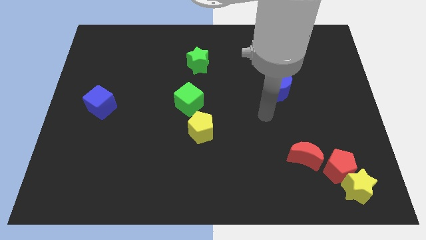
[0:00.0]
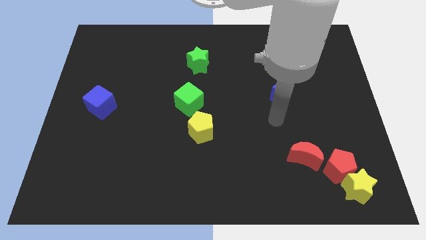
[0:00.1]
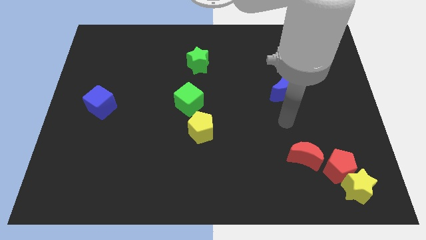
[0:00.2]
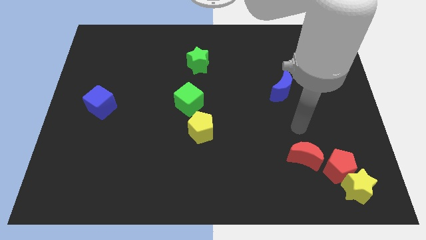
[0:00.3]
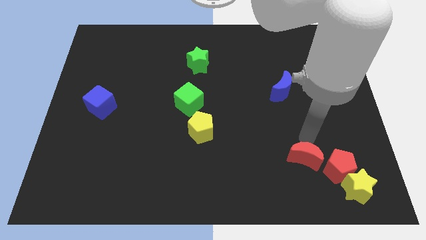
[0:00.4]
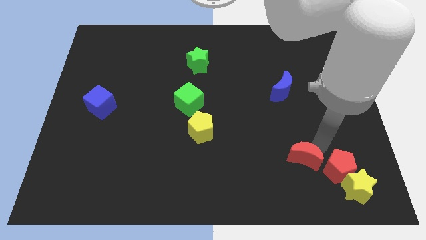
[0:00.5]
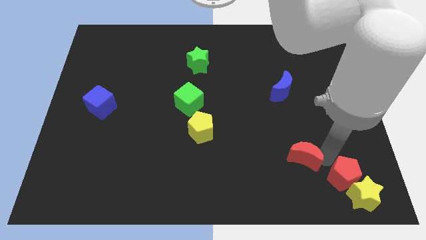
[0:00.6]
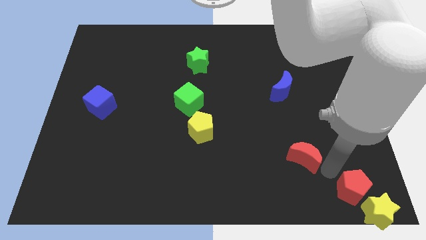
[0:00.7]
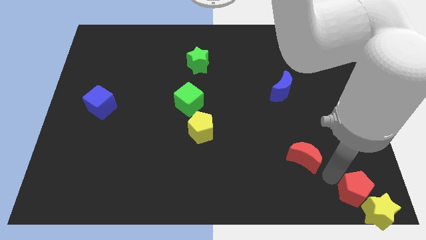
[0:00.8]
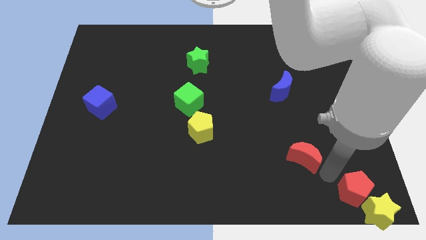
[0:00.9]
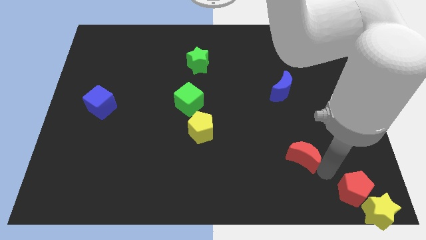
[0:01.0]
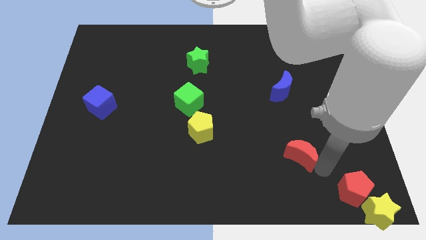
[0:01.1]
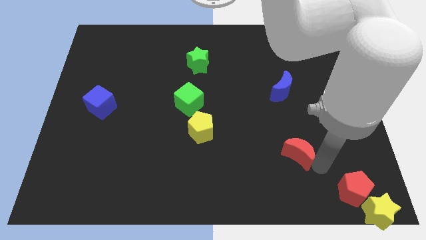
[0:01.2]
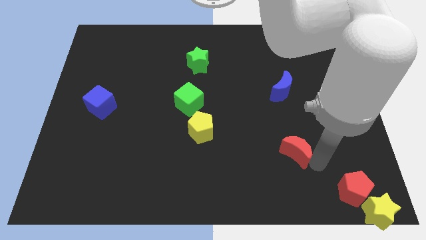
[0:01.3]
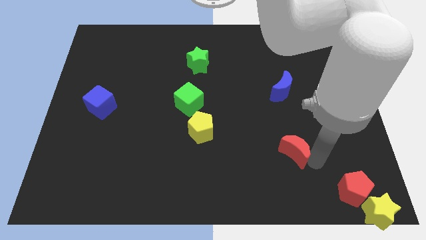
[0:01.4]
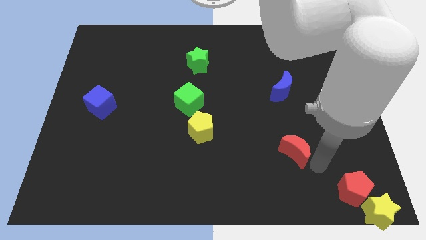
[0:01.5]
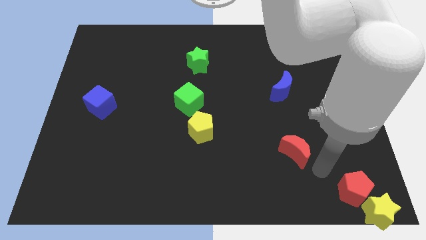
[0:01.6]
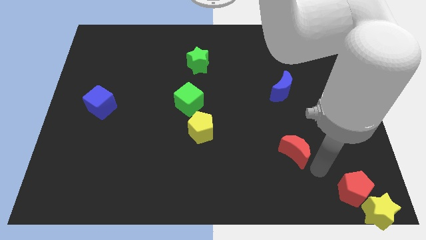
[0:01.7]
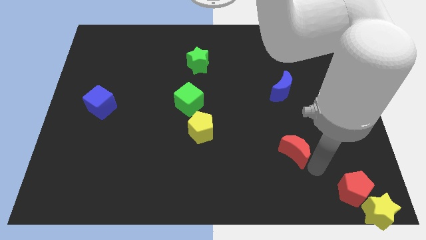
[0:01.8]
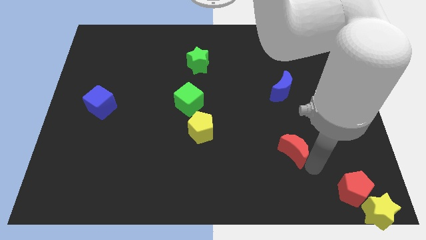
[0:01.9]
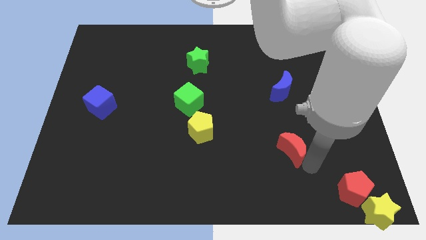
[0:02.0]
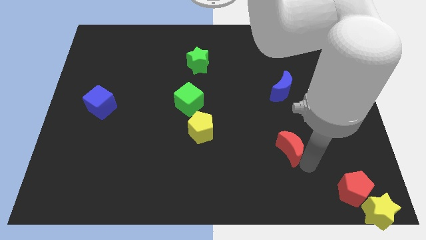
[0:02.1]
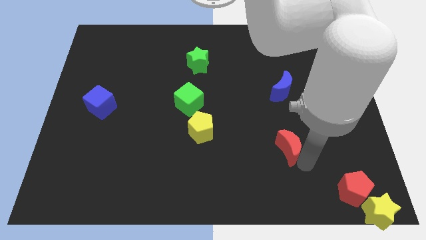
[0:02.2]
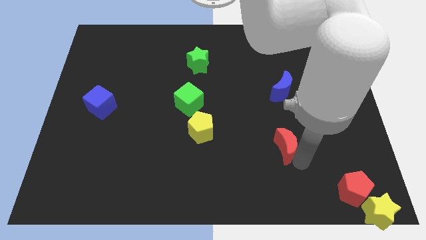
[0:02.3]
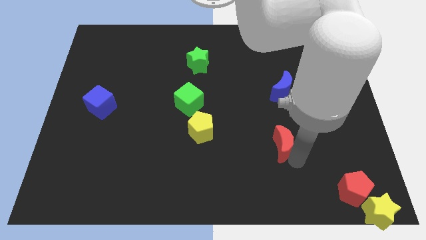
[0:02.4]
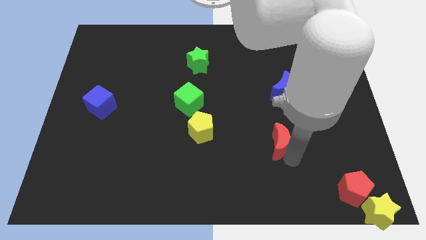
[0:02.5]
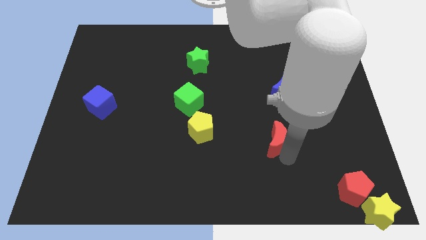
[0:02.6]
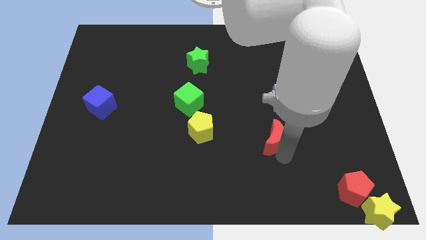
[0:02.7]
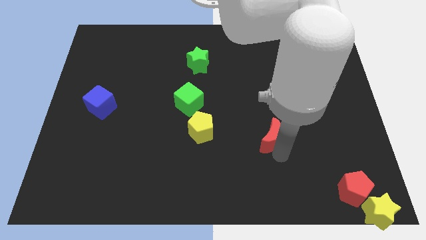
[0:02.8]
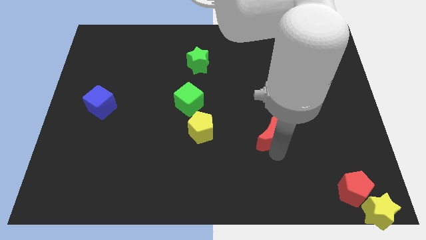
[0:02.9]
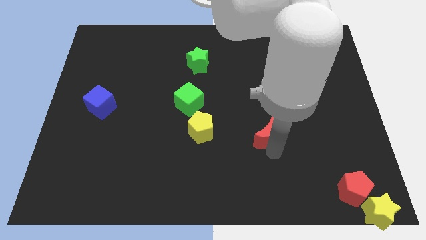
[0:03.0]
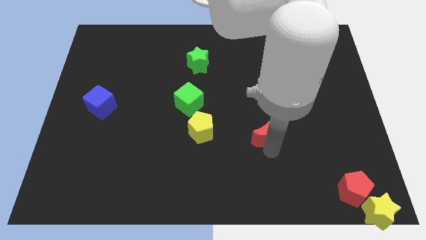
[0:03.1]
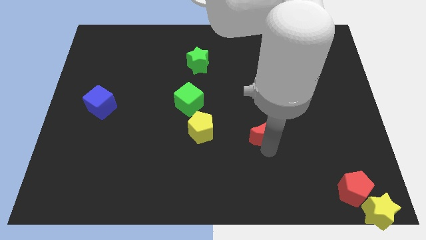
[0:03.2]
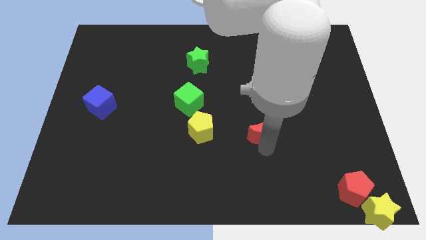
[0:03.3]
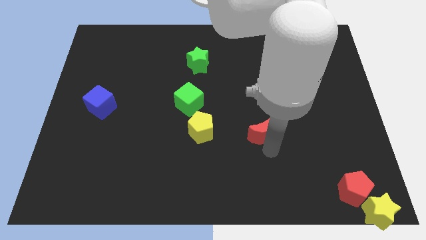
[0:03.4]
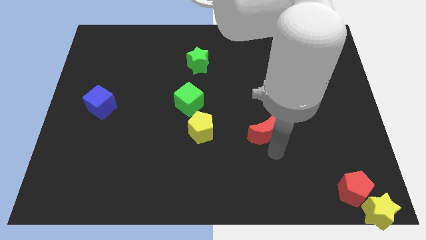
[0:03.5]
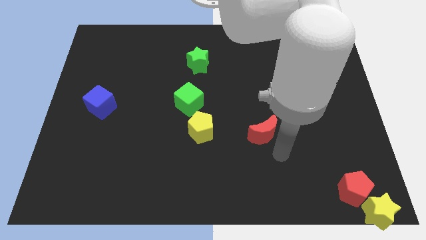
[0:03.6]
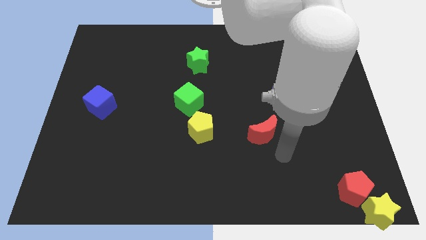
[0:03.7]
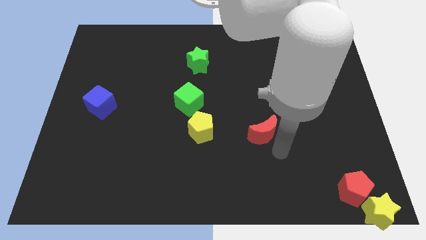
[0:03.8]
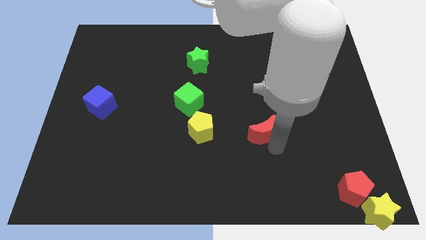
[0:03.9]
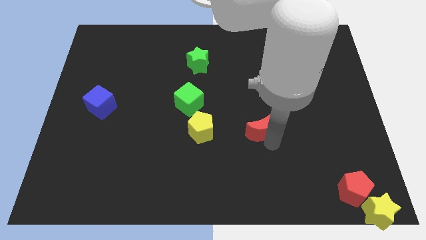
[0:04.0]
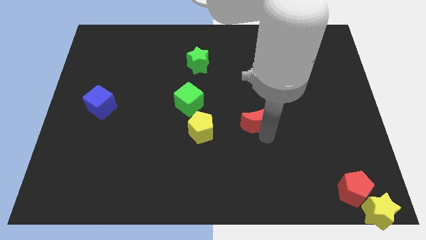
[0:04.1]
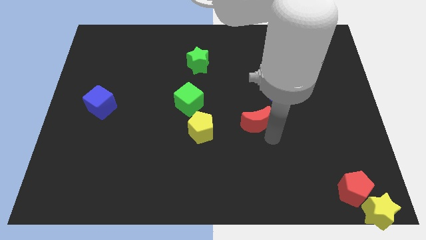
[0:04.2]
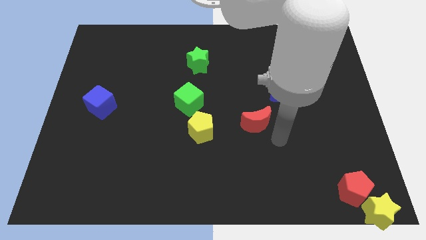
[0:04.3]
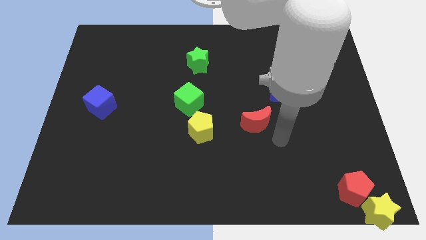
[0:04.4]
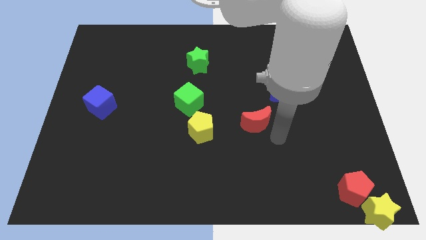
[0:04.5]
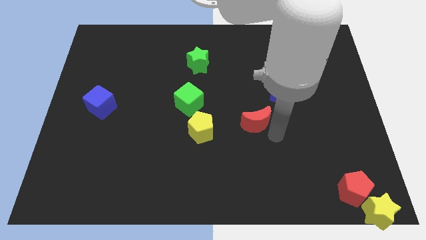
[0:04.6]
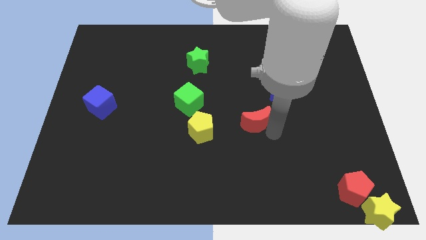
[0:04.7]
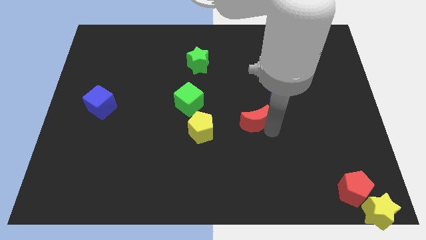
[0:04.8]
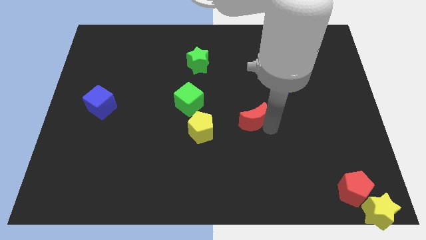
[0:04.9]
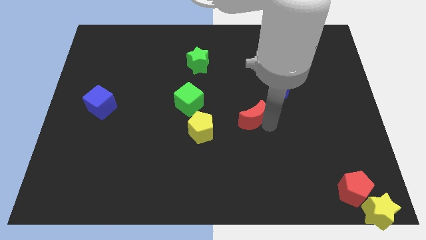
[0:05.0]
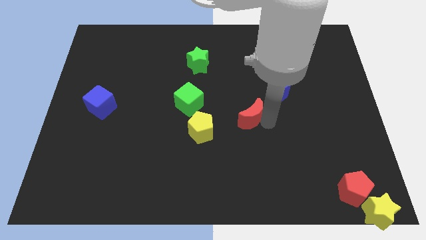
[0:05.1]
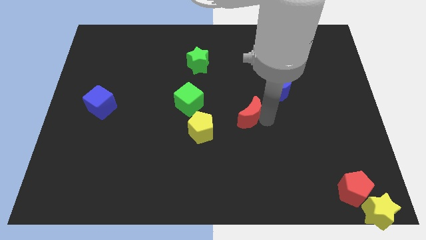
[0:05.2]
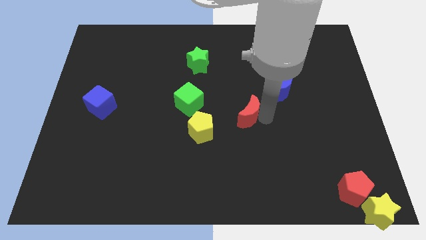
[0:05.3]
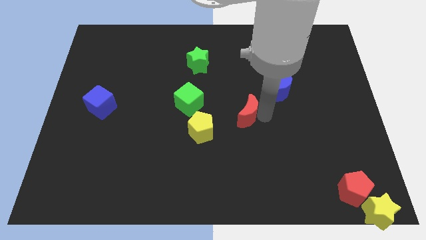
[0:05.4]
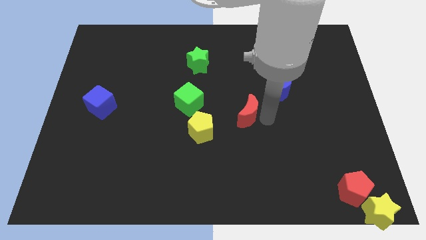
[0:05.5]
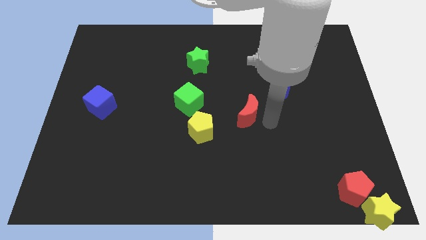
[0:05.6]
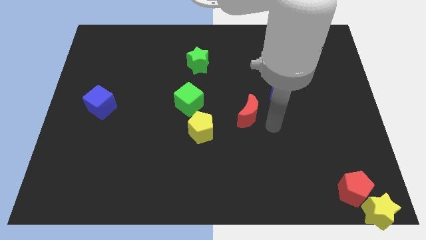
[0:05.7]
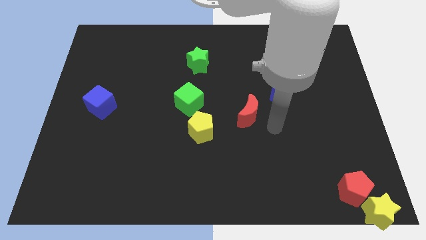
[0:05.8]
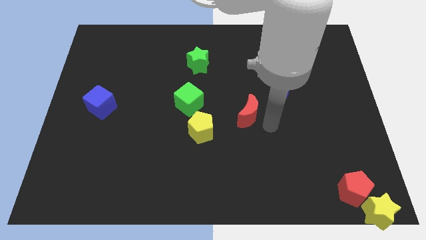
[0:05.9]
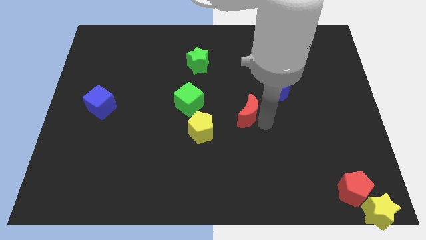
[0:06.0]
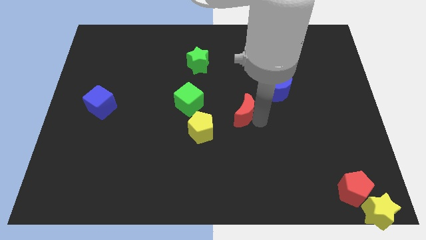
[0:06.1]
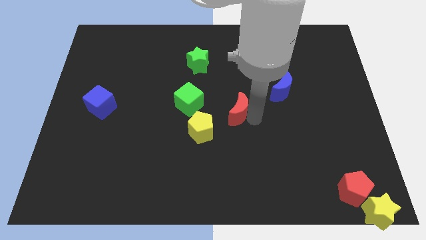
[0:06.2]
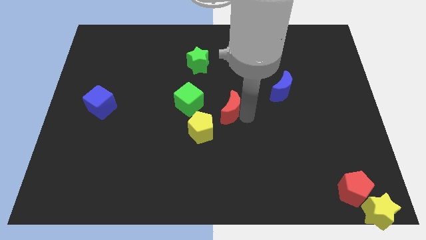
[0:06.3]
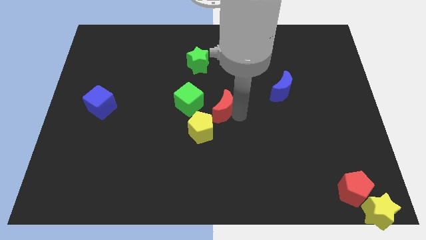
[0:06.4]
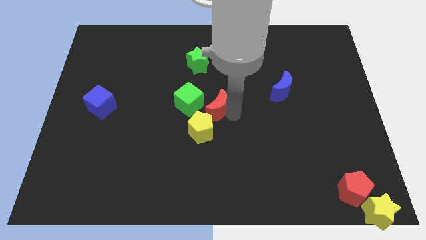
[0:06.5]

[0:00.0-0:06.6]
put the red moon to the top side of the yellow pentagon

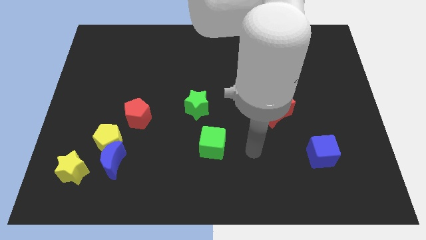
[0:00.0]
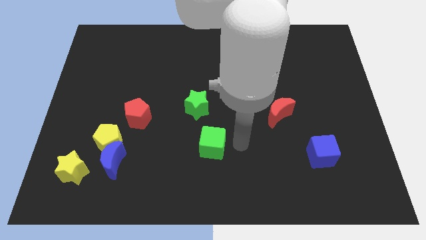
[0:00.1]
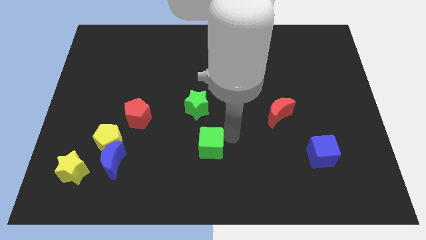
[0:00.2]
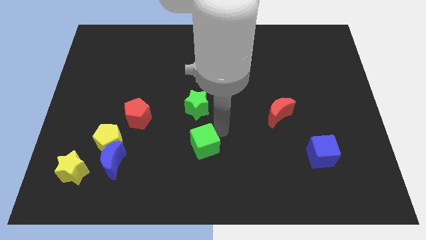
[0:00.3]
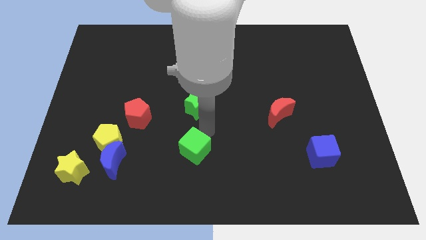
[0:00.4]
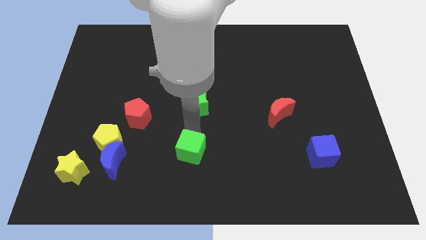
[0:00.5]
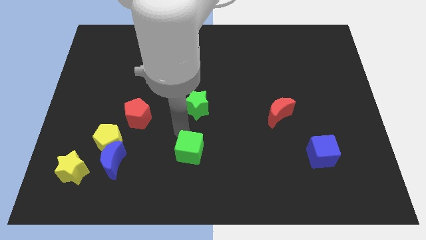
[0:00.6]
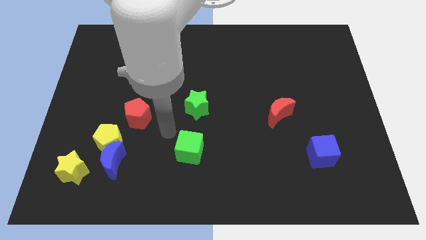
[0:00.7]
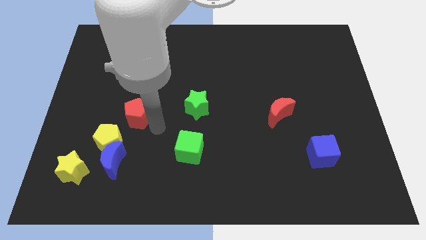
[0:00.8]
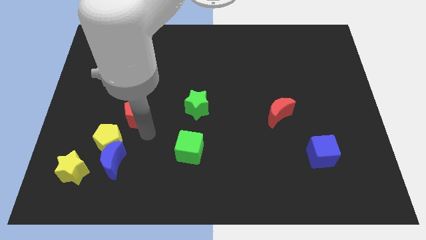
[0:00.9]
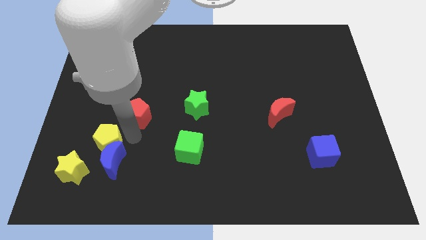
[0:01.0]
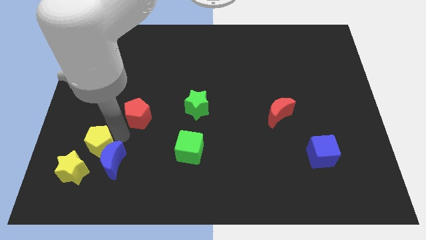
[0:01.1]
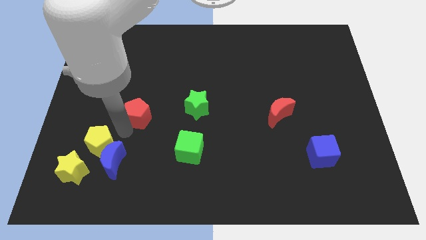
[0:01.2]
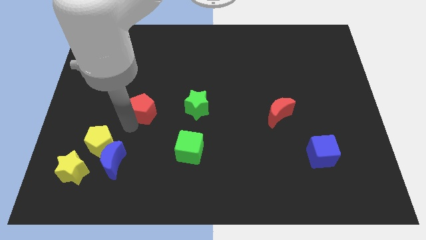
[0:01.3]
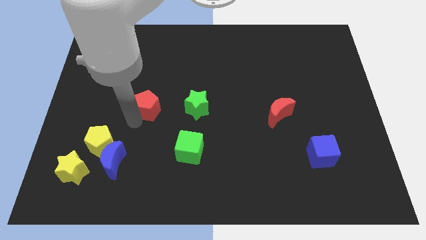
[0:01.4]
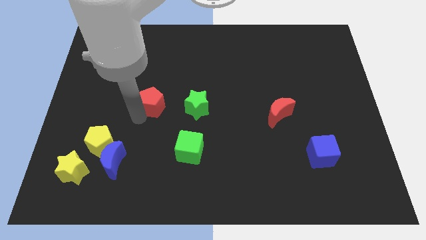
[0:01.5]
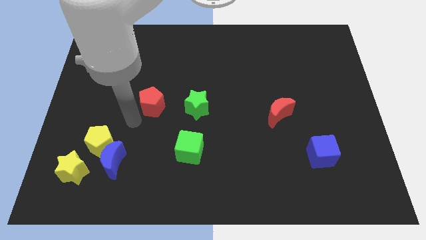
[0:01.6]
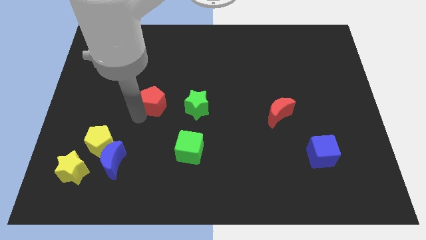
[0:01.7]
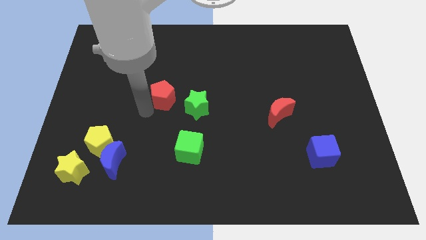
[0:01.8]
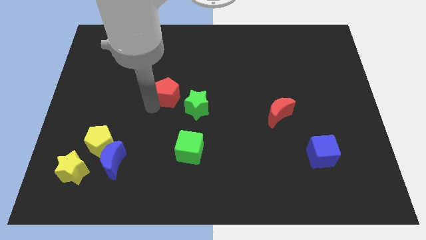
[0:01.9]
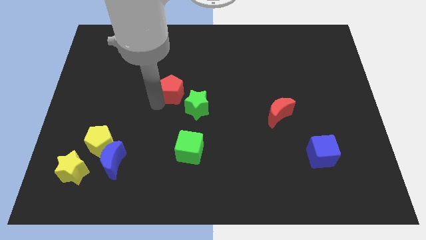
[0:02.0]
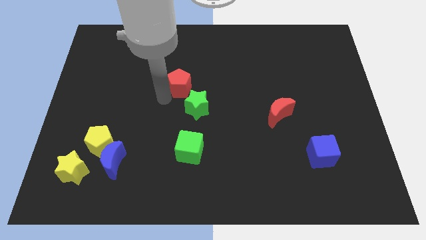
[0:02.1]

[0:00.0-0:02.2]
push the red pentagon above the green star
